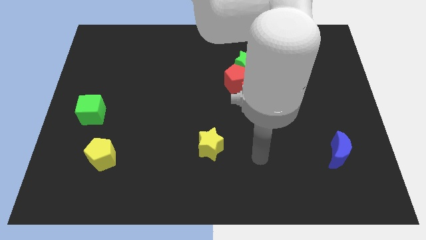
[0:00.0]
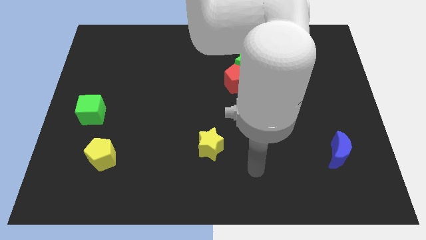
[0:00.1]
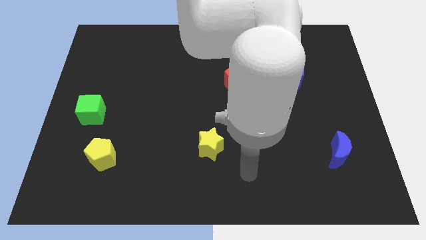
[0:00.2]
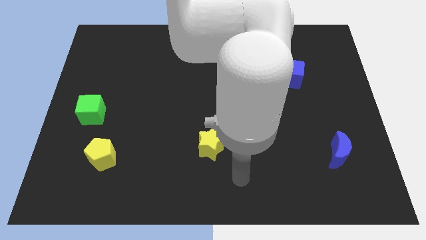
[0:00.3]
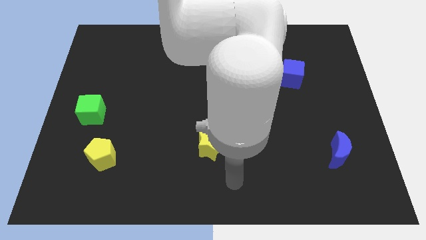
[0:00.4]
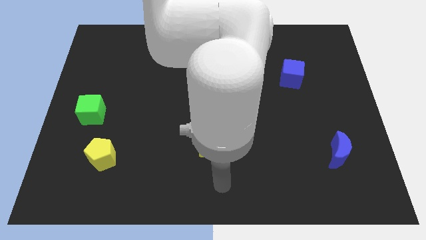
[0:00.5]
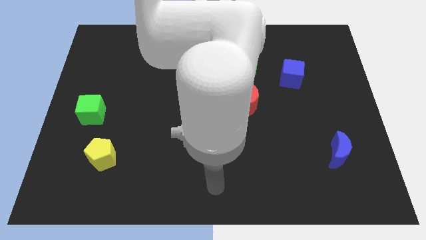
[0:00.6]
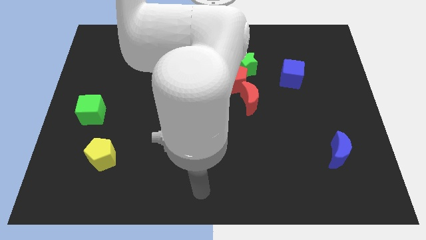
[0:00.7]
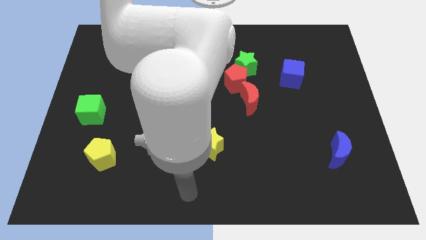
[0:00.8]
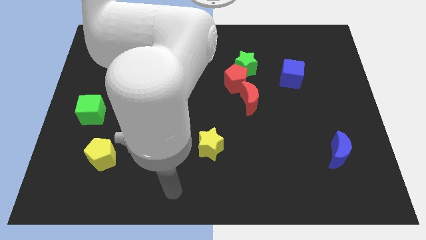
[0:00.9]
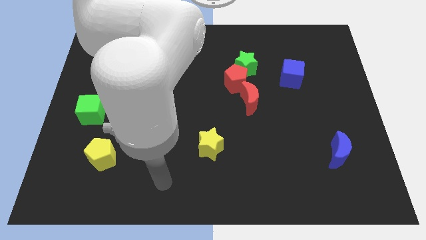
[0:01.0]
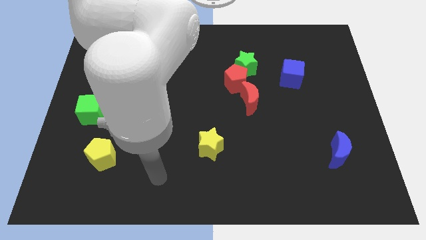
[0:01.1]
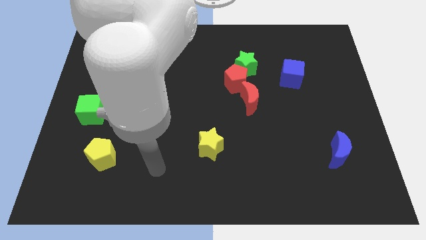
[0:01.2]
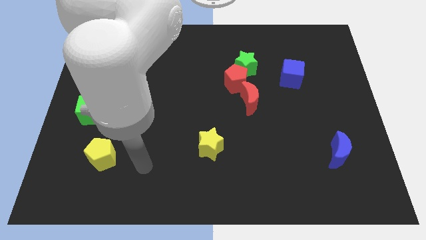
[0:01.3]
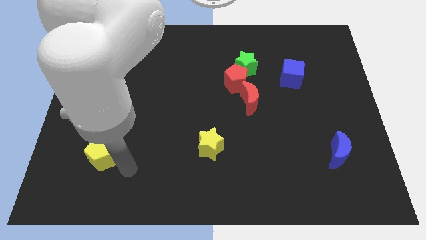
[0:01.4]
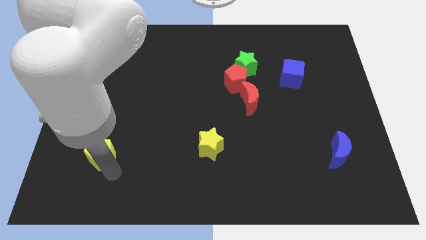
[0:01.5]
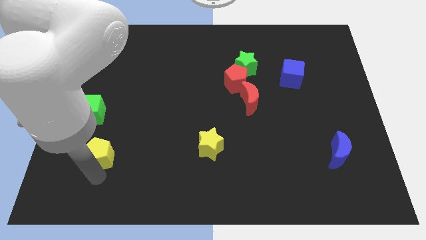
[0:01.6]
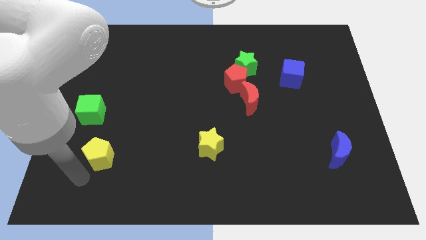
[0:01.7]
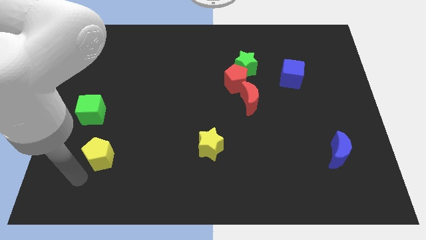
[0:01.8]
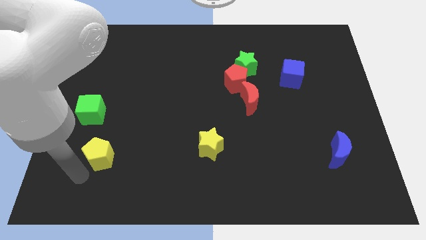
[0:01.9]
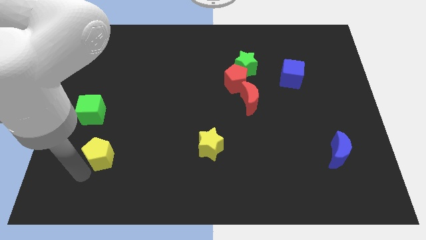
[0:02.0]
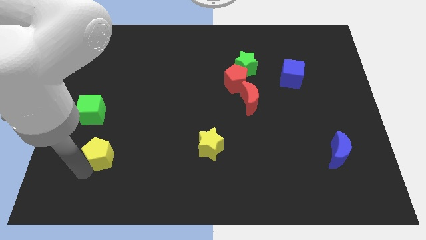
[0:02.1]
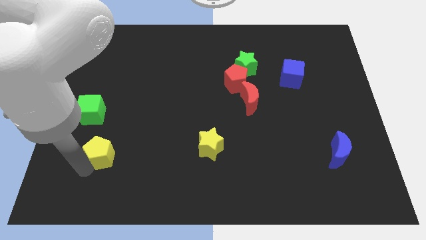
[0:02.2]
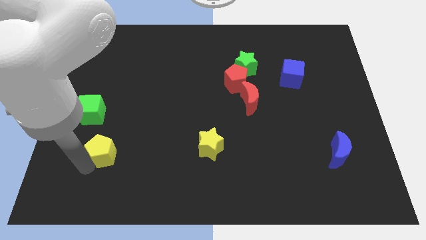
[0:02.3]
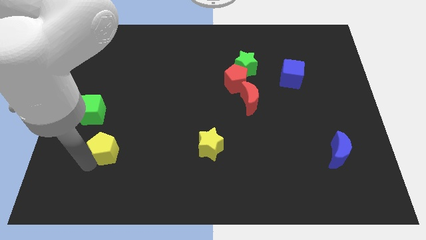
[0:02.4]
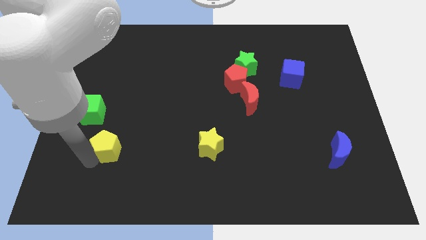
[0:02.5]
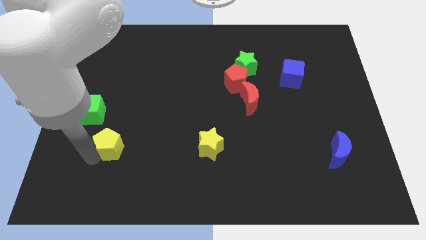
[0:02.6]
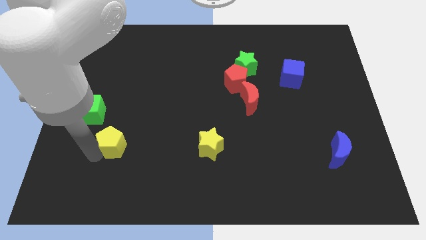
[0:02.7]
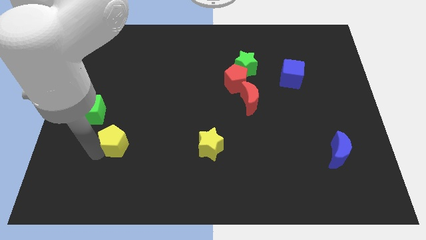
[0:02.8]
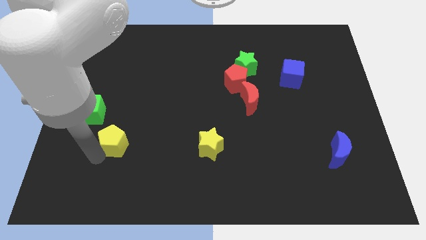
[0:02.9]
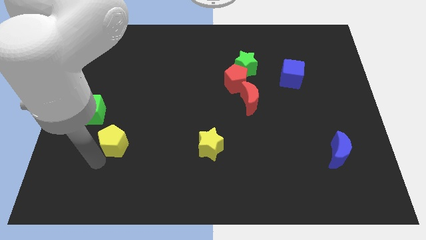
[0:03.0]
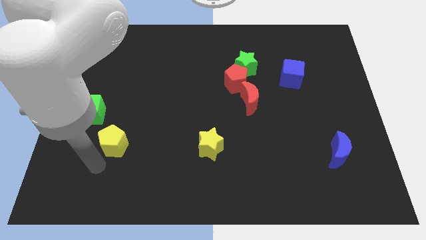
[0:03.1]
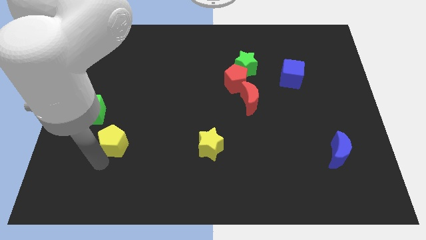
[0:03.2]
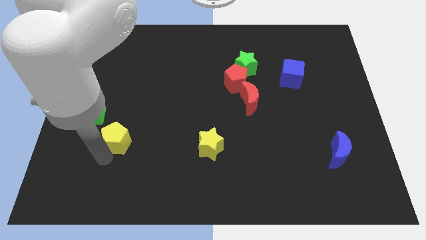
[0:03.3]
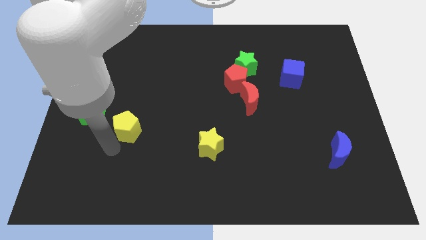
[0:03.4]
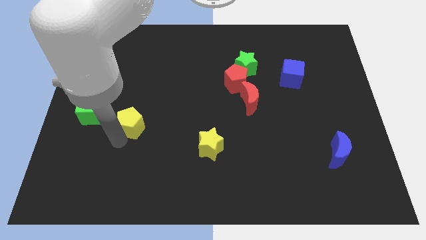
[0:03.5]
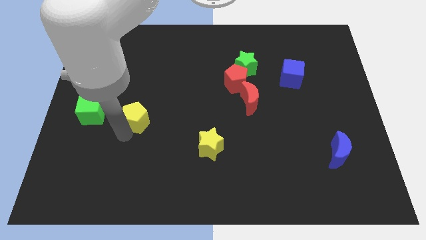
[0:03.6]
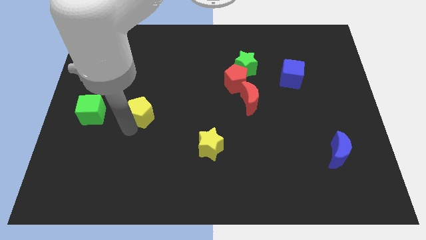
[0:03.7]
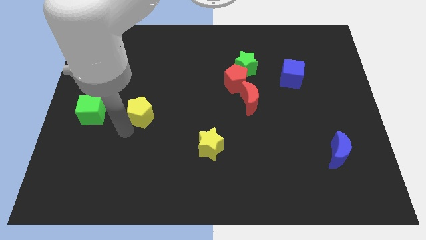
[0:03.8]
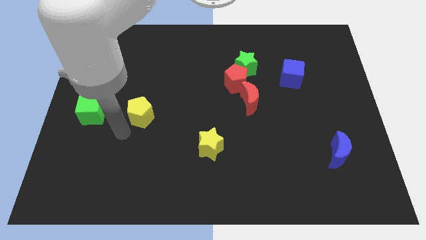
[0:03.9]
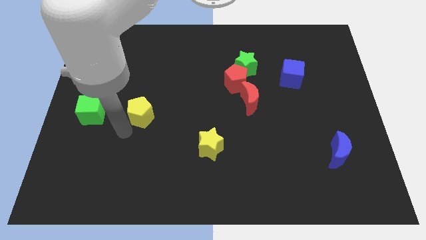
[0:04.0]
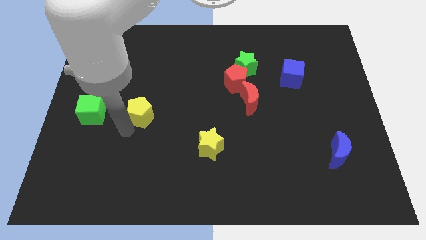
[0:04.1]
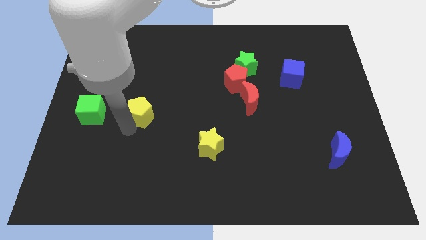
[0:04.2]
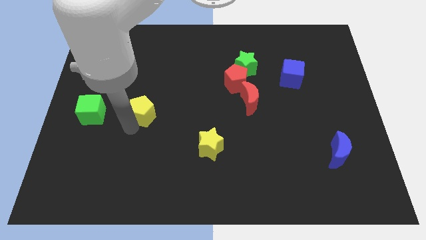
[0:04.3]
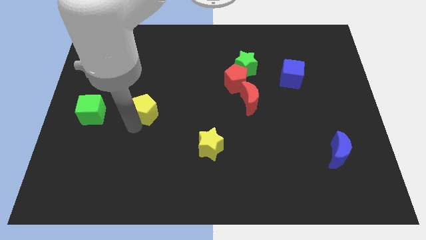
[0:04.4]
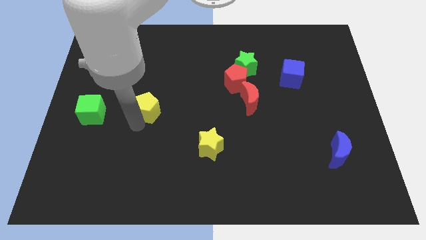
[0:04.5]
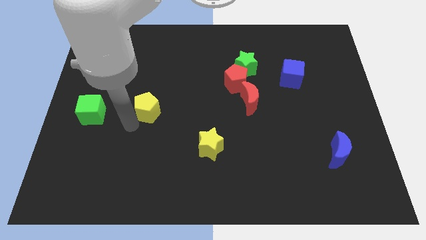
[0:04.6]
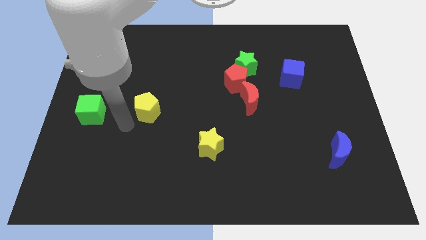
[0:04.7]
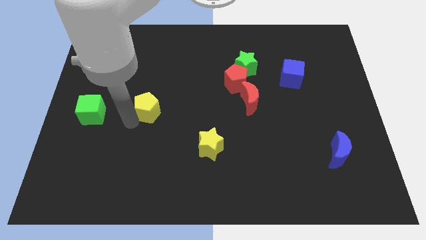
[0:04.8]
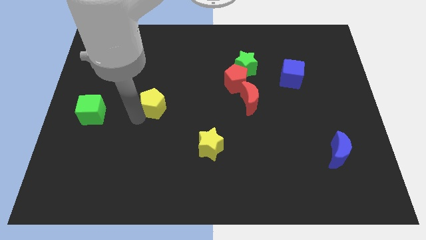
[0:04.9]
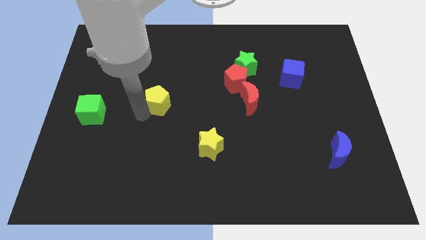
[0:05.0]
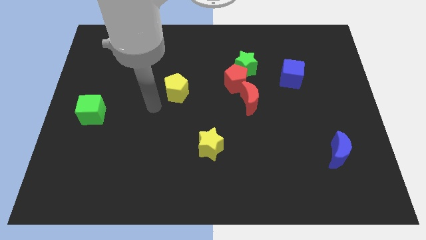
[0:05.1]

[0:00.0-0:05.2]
slide the yellow pentagon upwards and then right

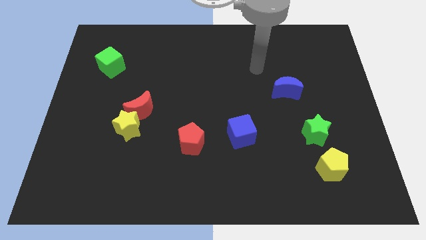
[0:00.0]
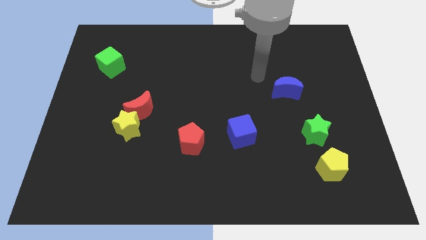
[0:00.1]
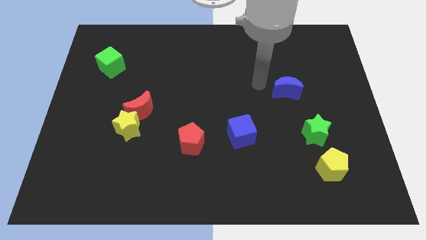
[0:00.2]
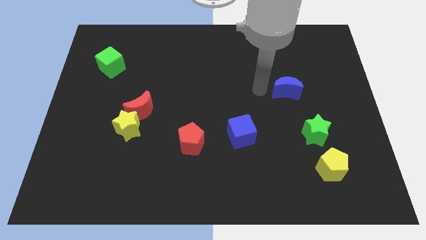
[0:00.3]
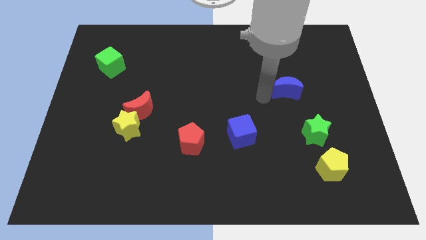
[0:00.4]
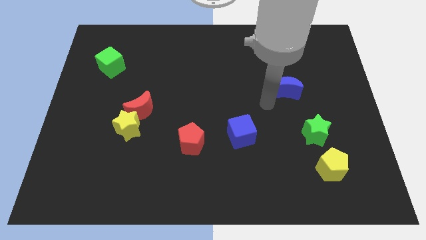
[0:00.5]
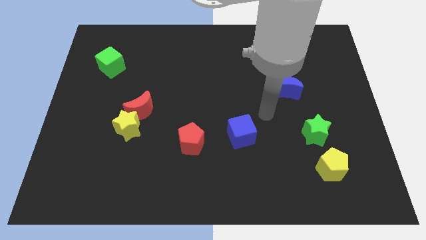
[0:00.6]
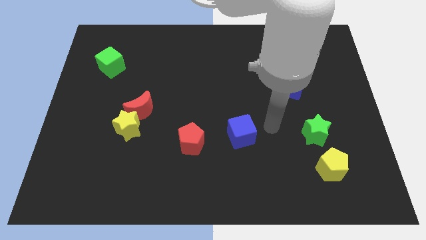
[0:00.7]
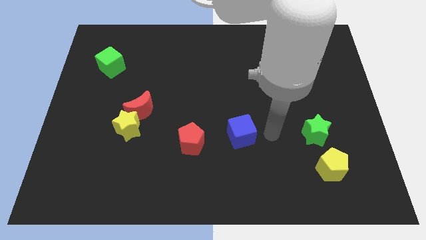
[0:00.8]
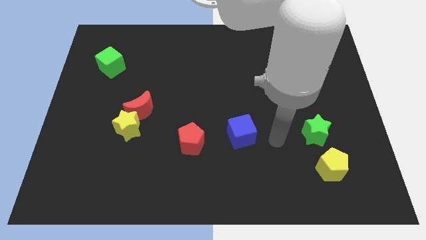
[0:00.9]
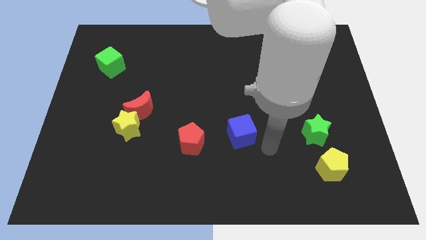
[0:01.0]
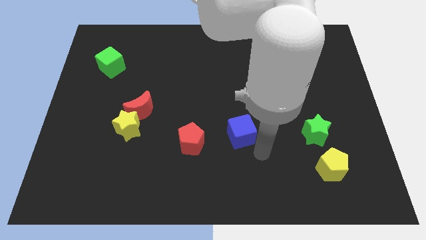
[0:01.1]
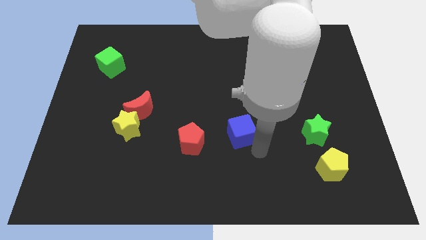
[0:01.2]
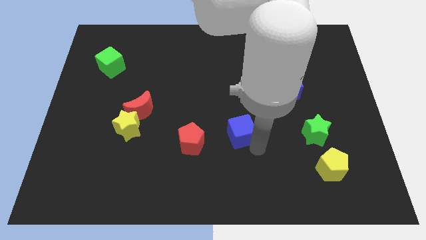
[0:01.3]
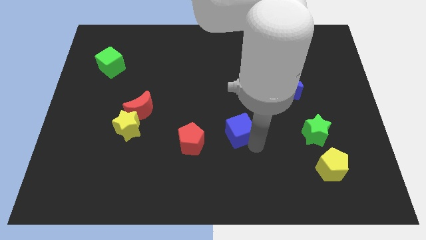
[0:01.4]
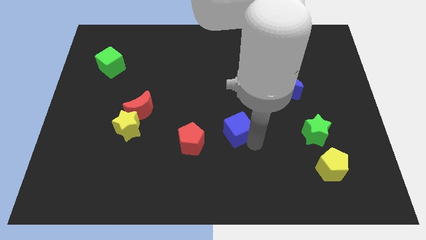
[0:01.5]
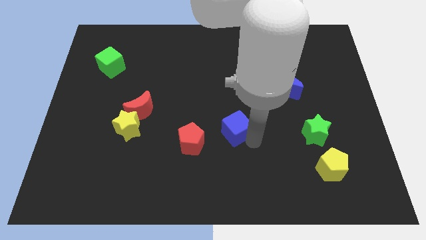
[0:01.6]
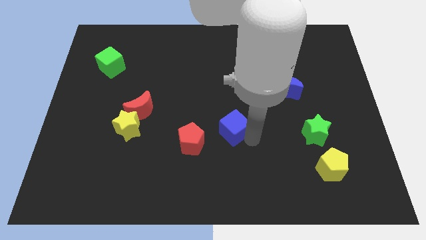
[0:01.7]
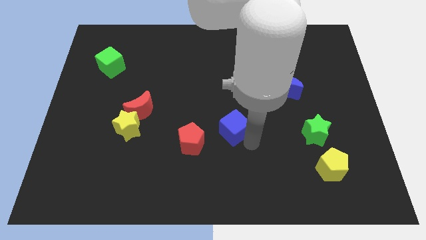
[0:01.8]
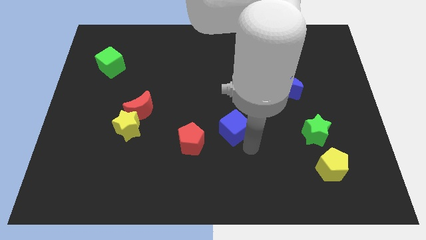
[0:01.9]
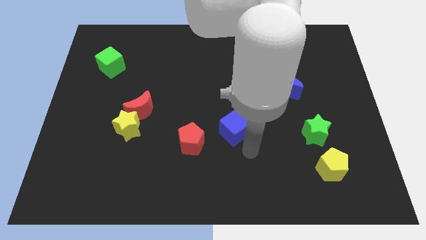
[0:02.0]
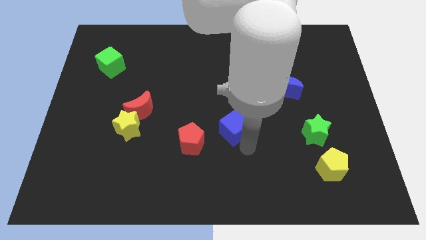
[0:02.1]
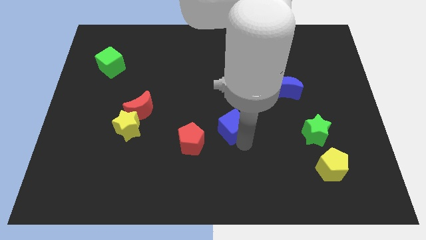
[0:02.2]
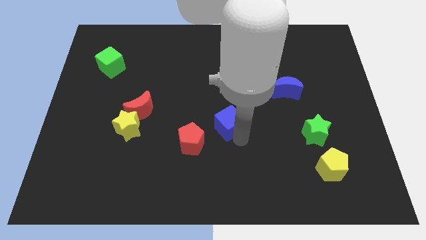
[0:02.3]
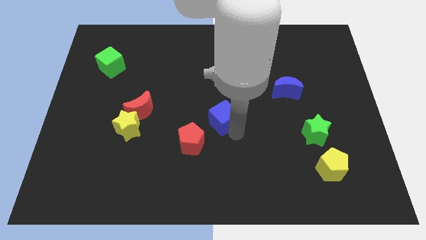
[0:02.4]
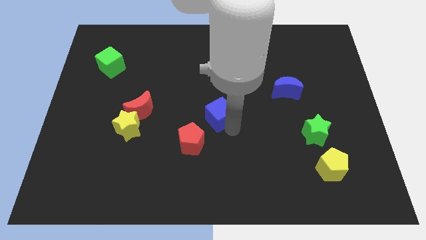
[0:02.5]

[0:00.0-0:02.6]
slightly push the blue cube up and left

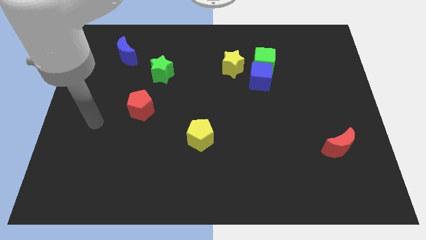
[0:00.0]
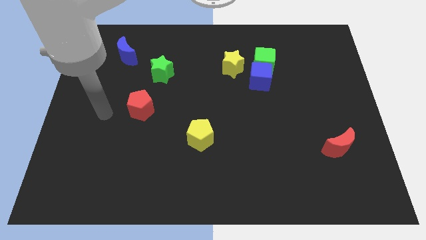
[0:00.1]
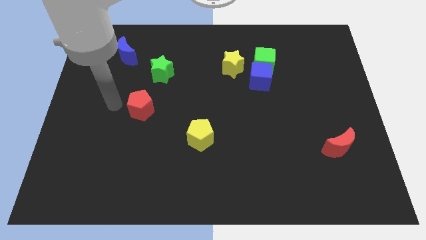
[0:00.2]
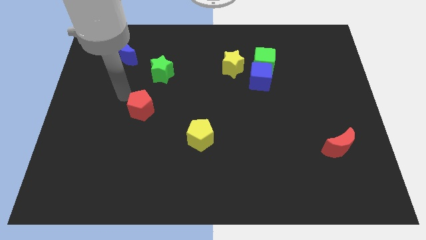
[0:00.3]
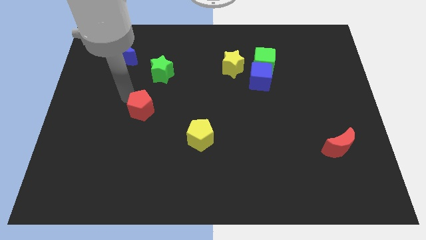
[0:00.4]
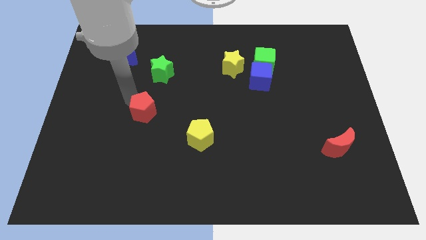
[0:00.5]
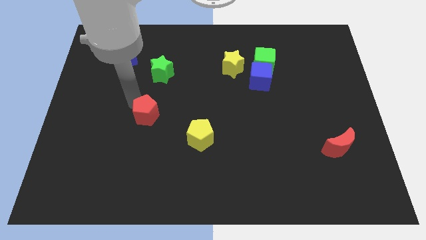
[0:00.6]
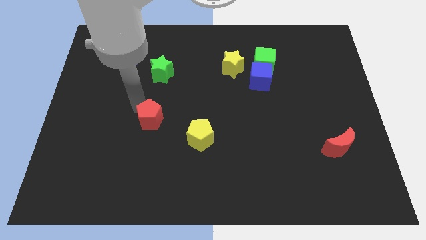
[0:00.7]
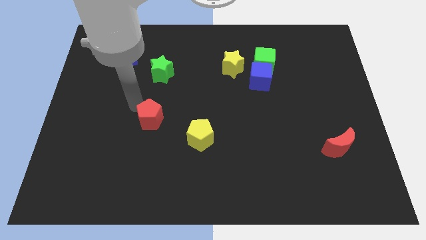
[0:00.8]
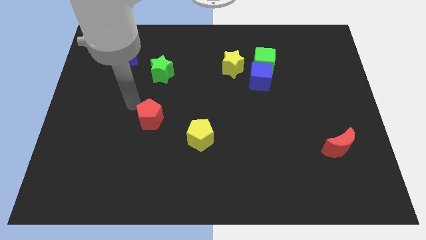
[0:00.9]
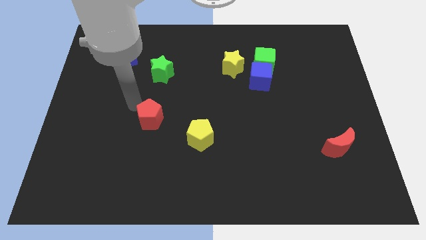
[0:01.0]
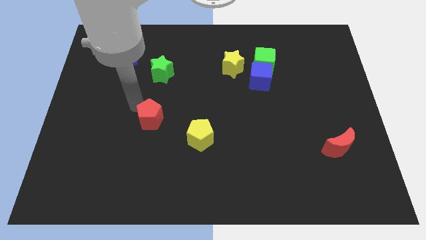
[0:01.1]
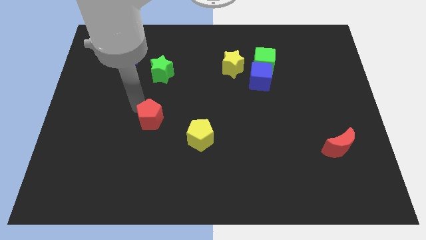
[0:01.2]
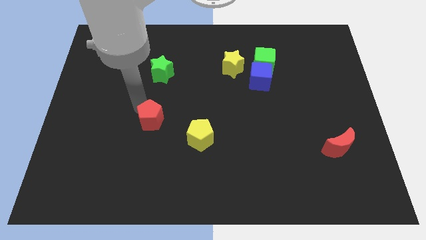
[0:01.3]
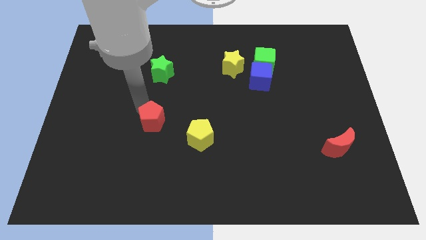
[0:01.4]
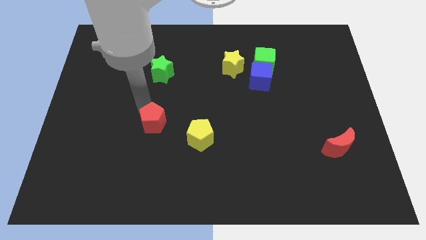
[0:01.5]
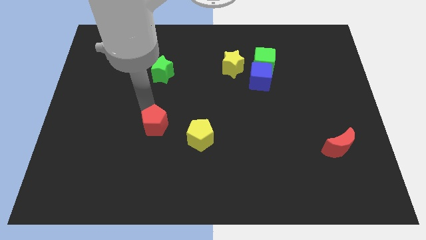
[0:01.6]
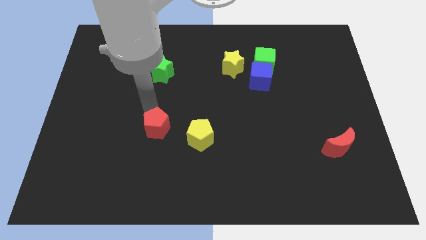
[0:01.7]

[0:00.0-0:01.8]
slightly push the red pentagon downwards and to the right
